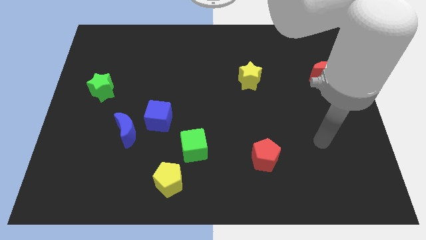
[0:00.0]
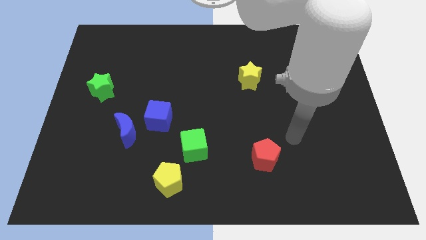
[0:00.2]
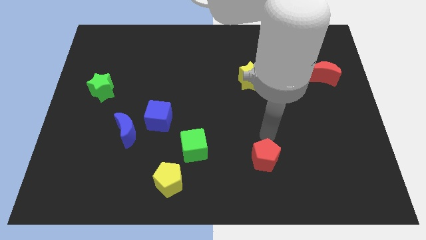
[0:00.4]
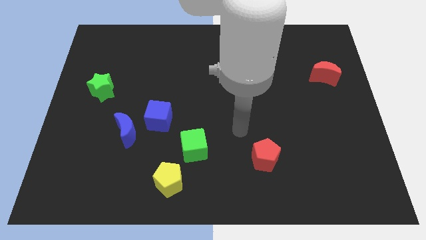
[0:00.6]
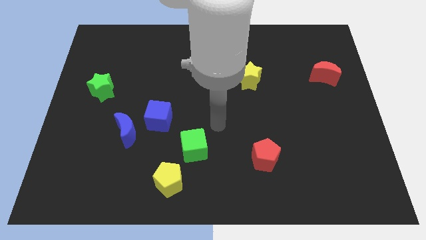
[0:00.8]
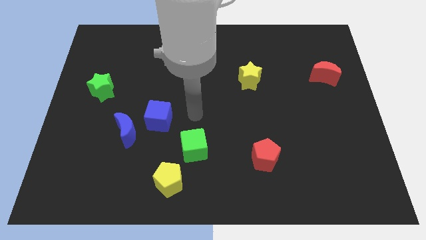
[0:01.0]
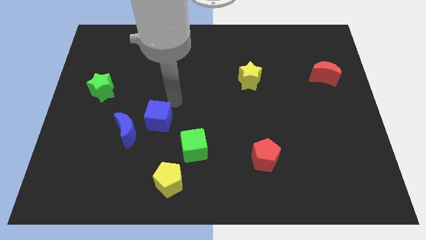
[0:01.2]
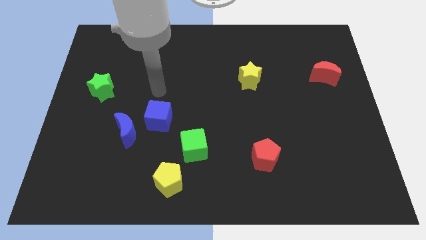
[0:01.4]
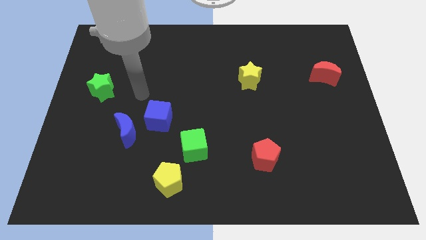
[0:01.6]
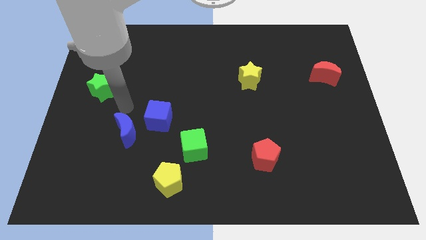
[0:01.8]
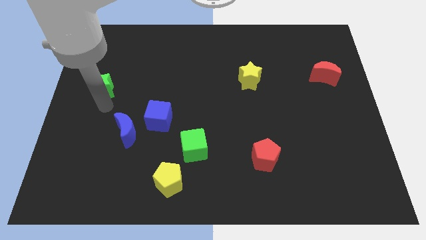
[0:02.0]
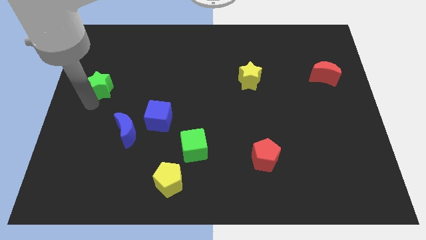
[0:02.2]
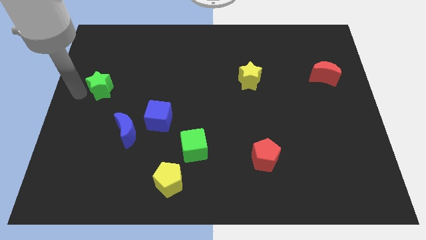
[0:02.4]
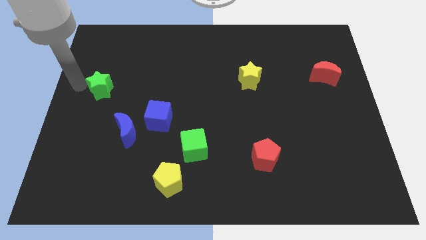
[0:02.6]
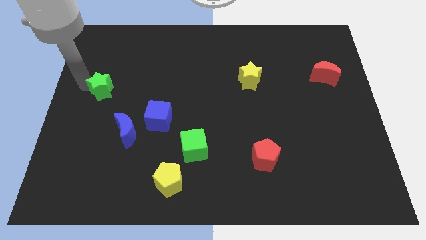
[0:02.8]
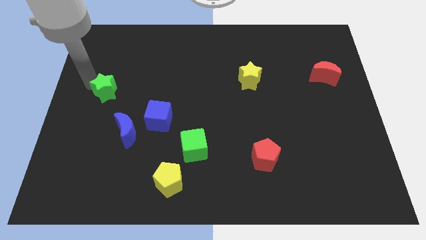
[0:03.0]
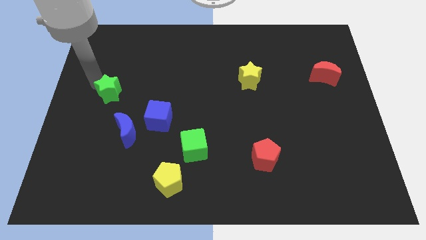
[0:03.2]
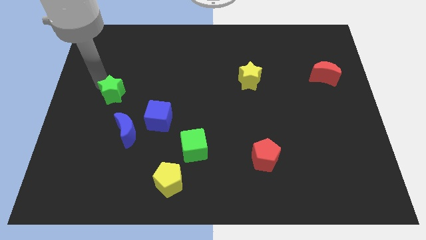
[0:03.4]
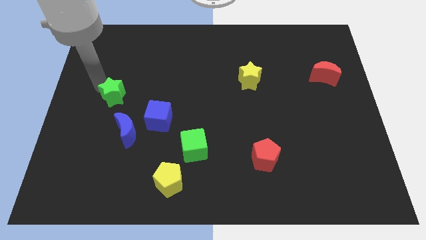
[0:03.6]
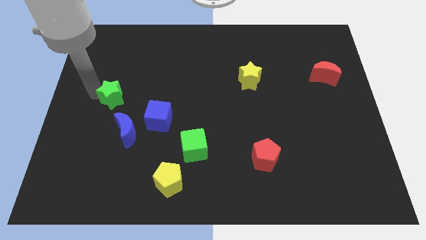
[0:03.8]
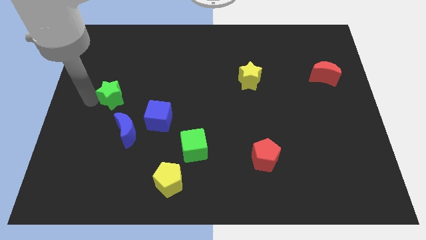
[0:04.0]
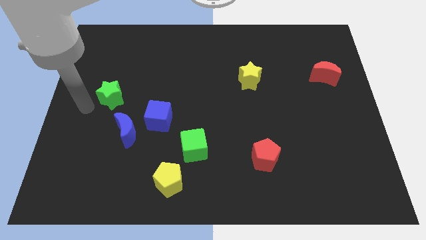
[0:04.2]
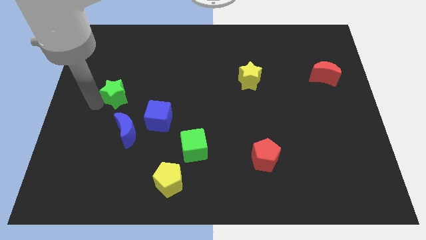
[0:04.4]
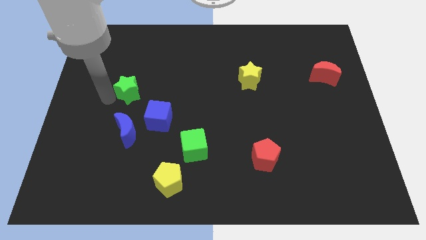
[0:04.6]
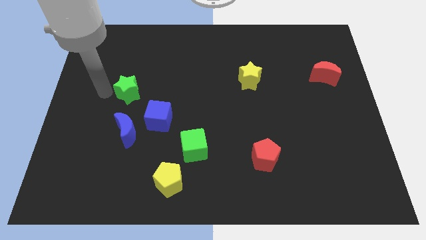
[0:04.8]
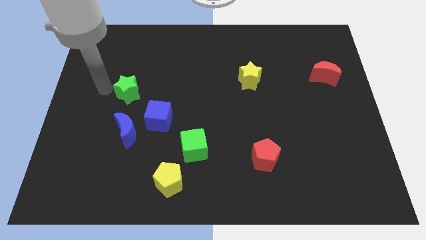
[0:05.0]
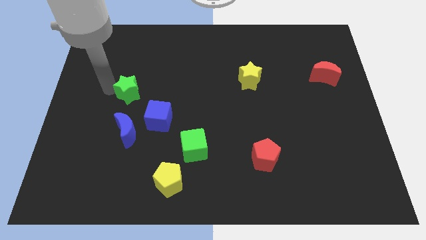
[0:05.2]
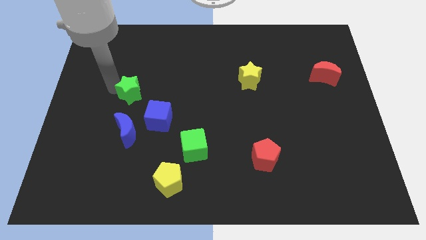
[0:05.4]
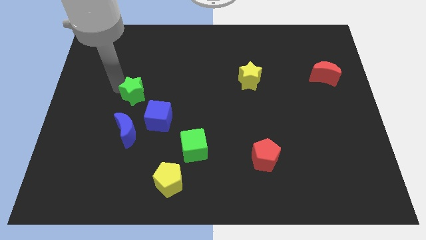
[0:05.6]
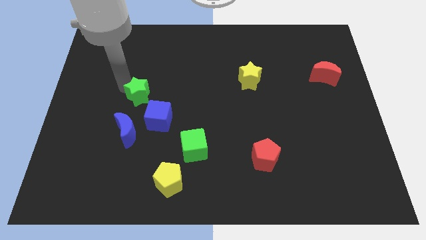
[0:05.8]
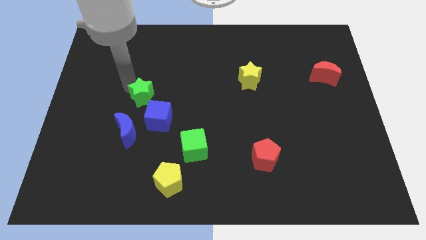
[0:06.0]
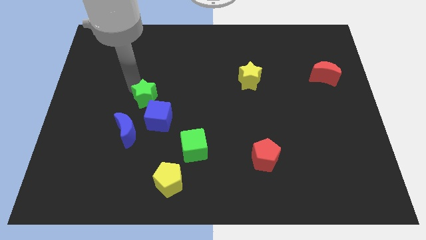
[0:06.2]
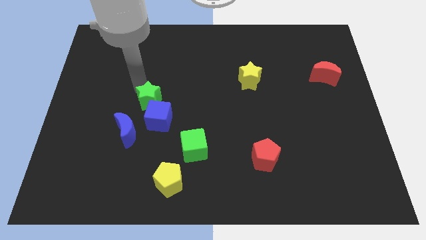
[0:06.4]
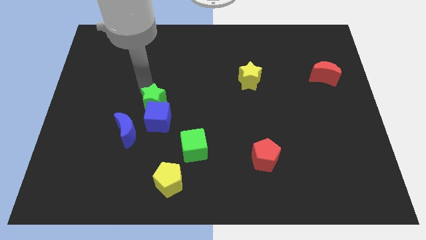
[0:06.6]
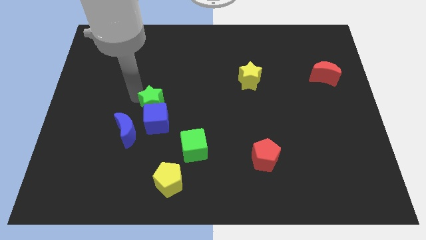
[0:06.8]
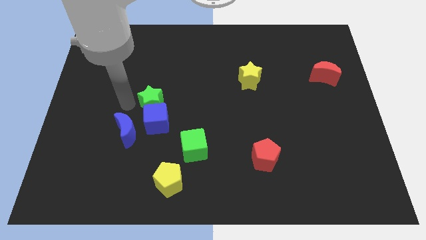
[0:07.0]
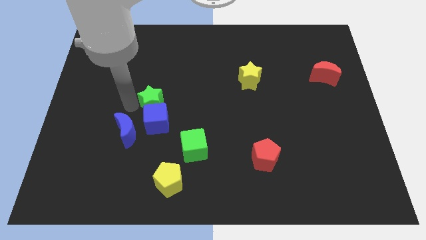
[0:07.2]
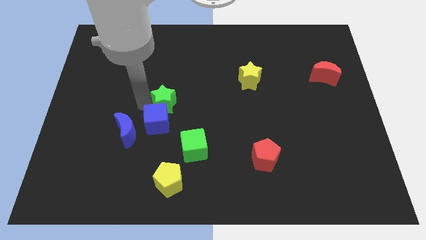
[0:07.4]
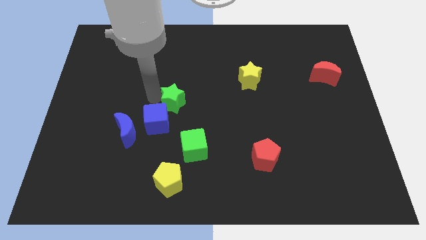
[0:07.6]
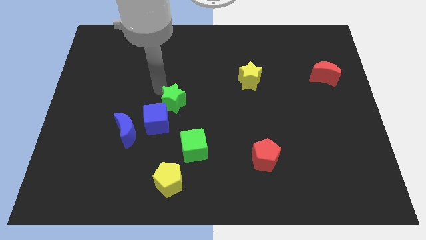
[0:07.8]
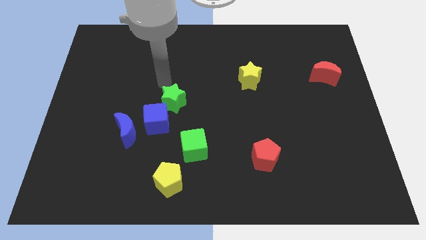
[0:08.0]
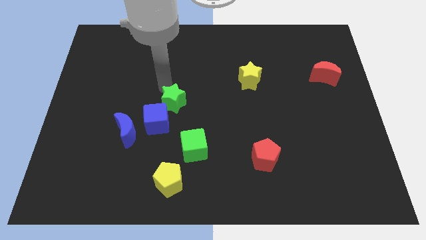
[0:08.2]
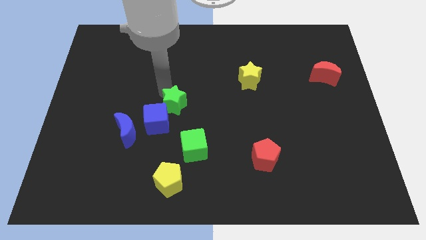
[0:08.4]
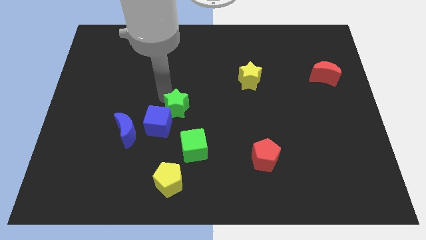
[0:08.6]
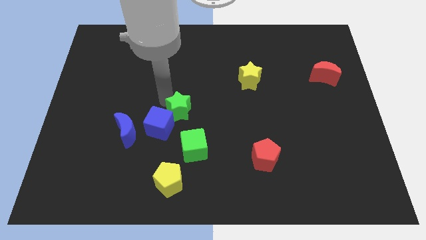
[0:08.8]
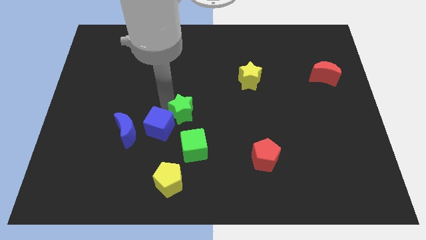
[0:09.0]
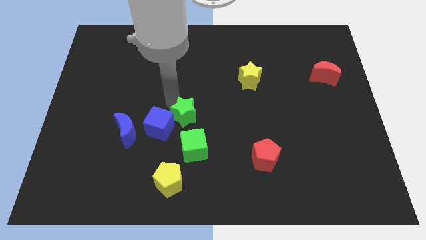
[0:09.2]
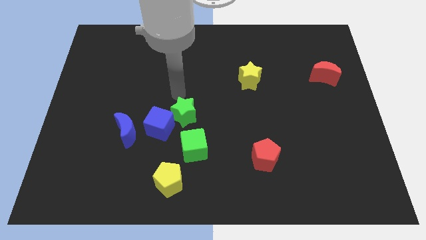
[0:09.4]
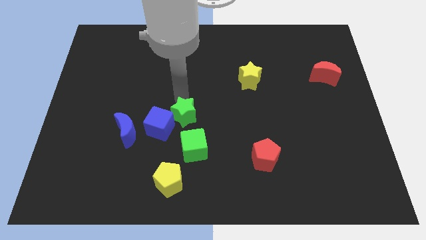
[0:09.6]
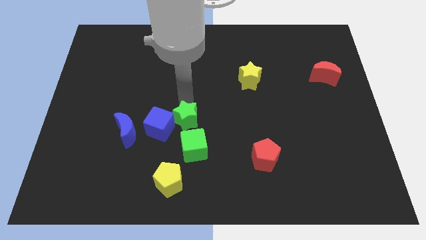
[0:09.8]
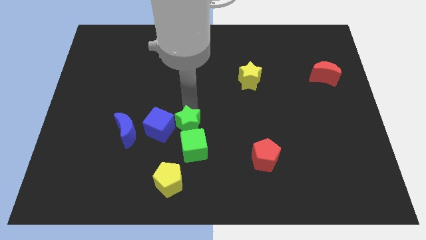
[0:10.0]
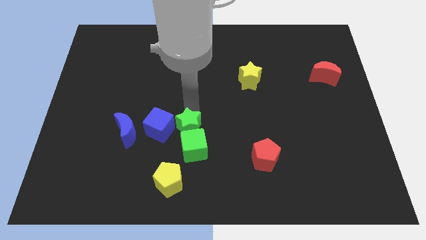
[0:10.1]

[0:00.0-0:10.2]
push the green star next to the green cube

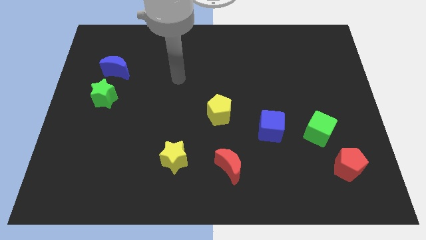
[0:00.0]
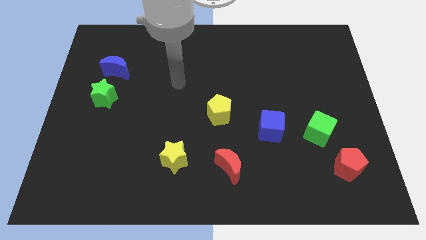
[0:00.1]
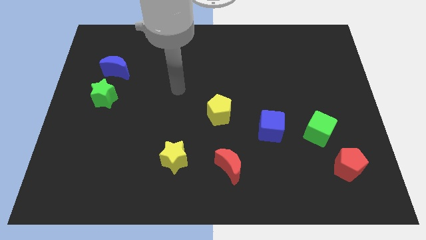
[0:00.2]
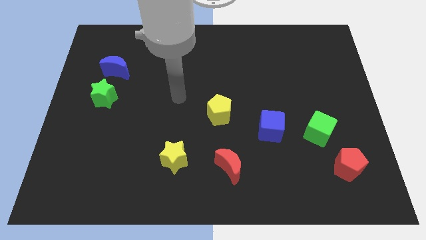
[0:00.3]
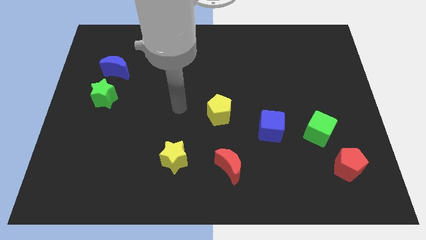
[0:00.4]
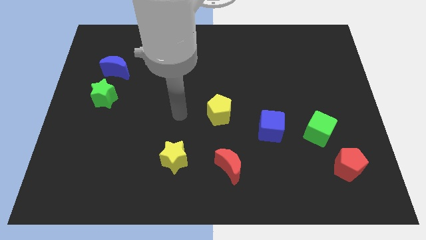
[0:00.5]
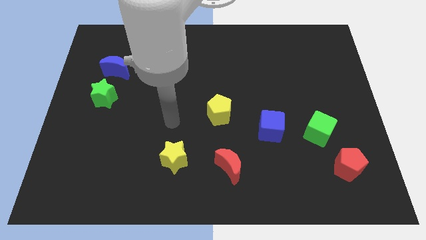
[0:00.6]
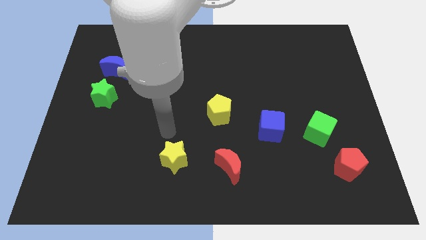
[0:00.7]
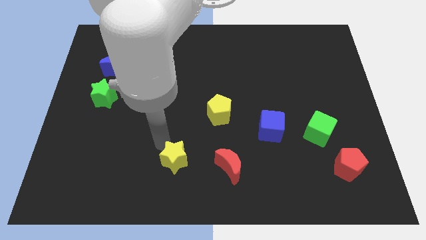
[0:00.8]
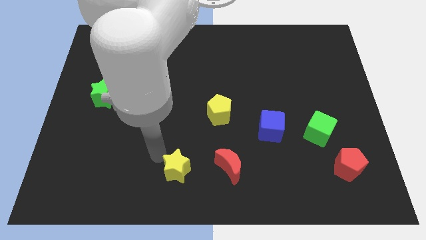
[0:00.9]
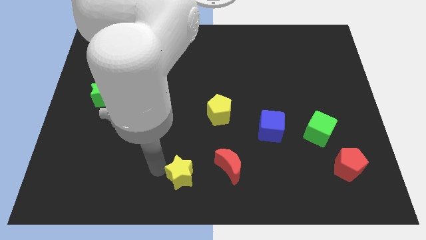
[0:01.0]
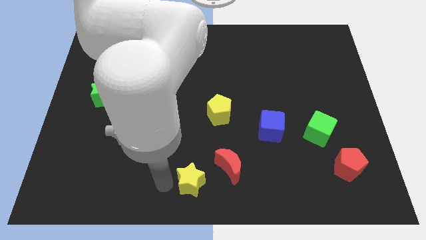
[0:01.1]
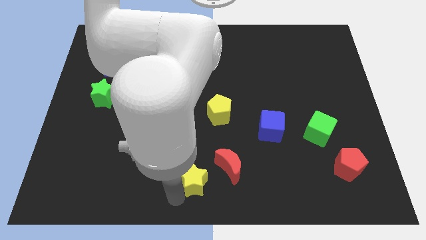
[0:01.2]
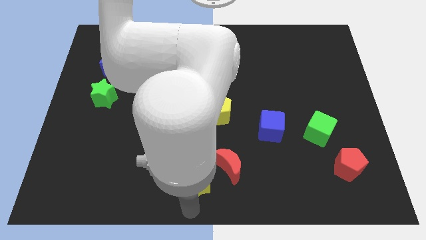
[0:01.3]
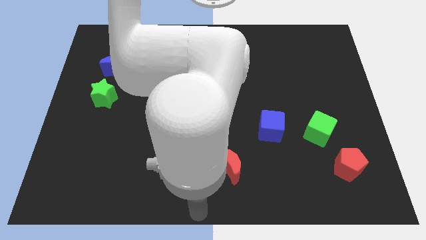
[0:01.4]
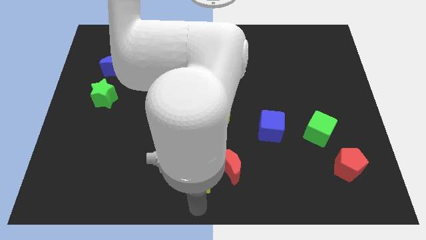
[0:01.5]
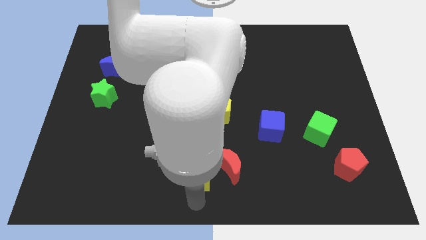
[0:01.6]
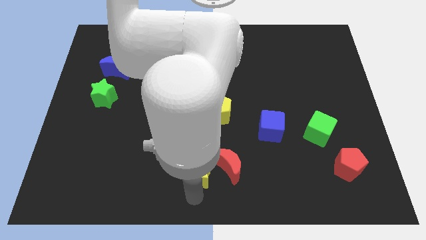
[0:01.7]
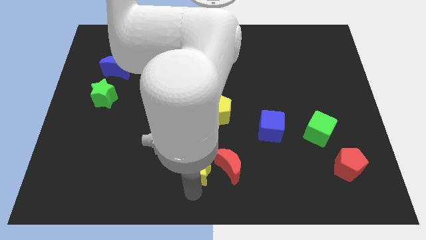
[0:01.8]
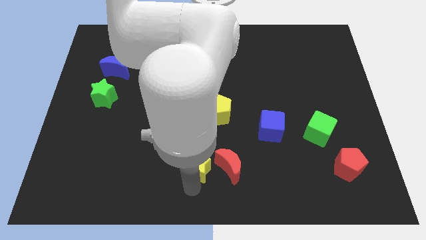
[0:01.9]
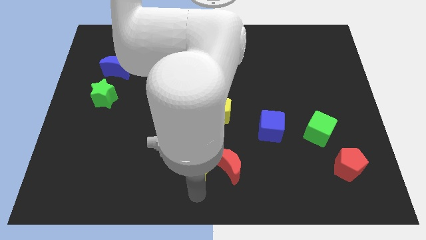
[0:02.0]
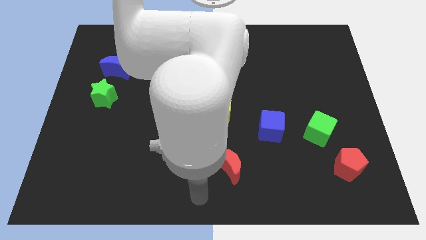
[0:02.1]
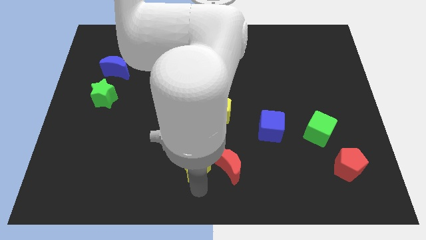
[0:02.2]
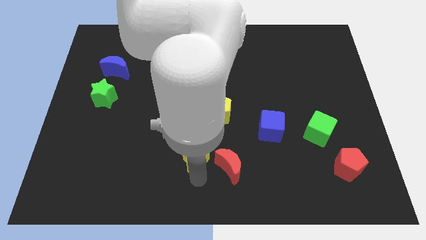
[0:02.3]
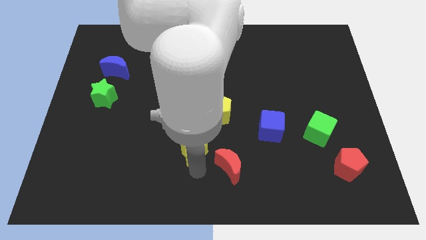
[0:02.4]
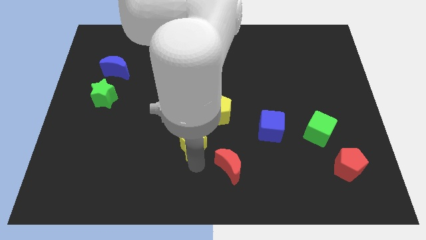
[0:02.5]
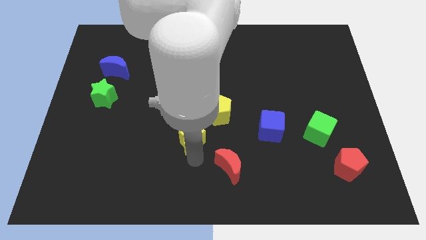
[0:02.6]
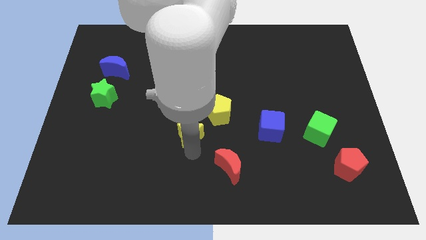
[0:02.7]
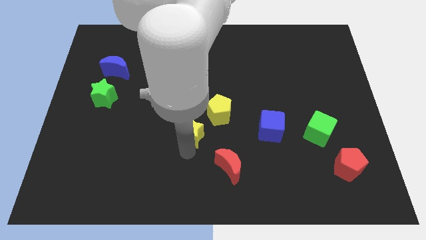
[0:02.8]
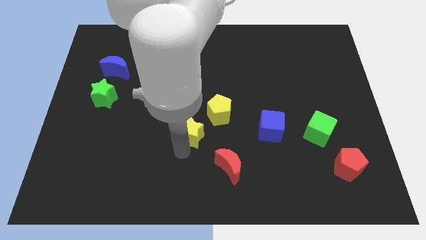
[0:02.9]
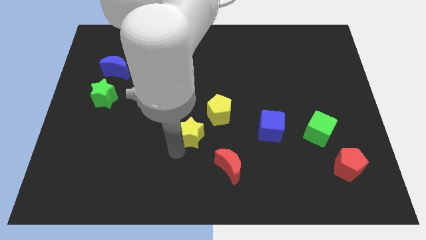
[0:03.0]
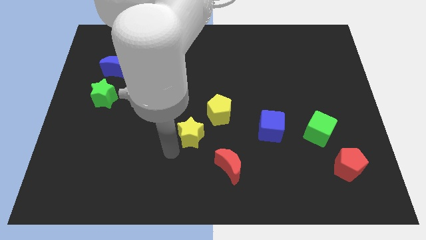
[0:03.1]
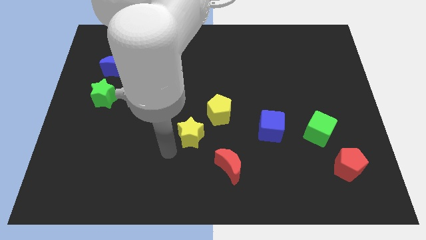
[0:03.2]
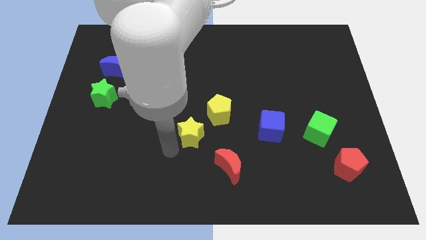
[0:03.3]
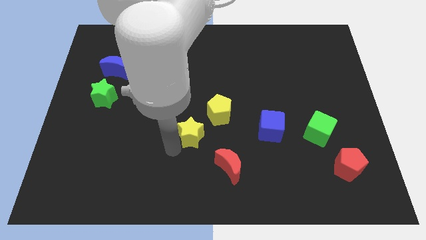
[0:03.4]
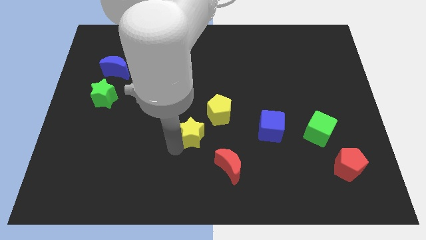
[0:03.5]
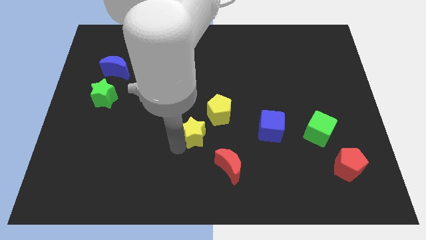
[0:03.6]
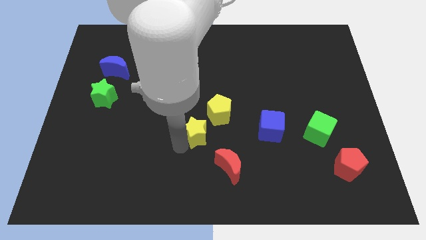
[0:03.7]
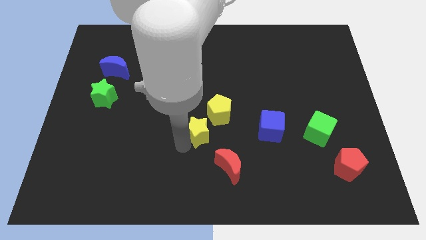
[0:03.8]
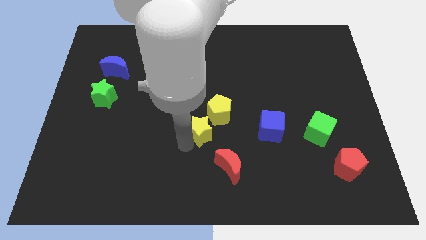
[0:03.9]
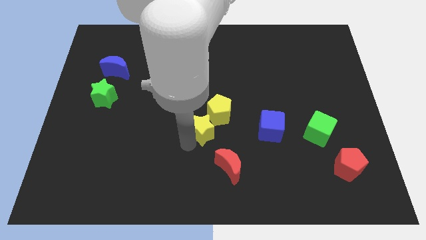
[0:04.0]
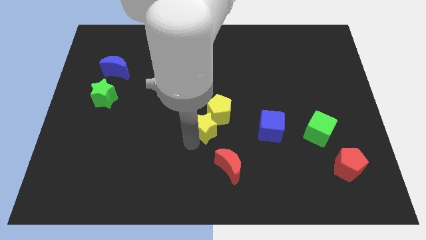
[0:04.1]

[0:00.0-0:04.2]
push the yellow star towards the yellow pentagon
